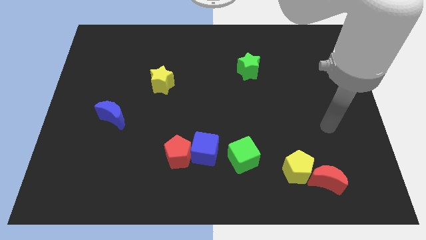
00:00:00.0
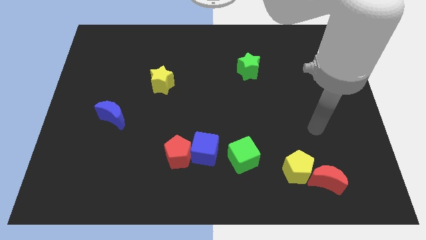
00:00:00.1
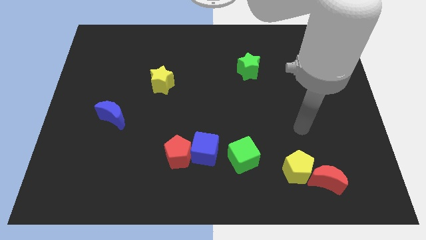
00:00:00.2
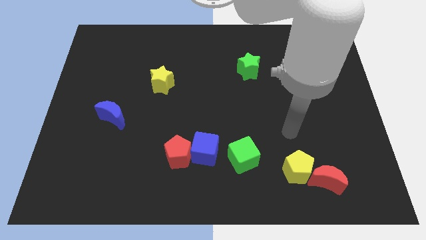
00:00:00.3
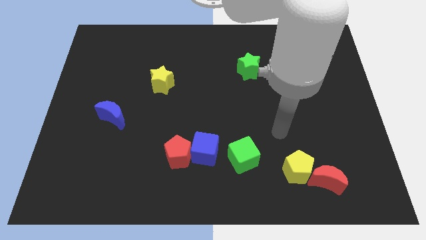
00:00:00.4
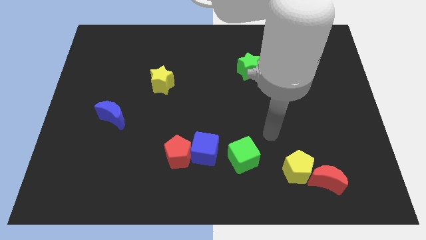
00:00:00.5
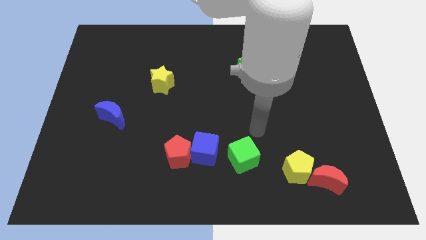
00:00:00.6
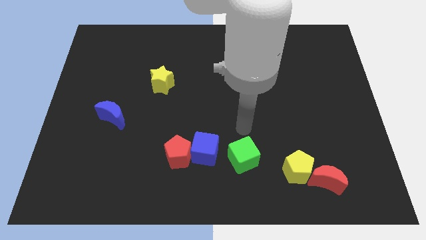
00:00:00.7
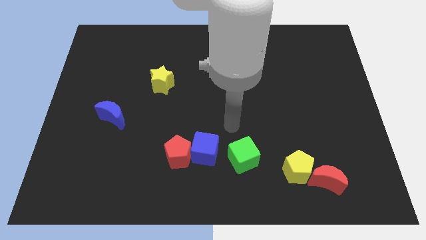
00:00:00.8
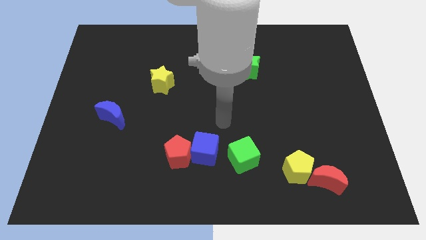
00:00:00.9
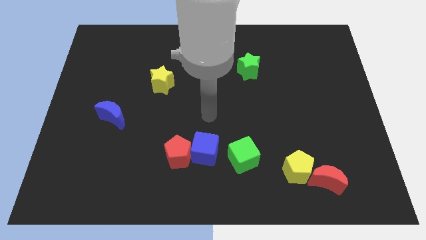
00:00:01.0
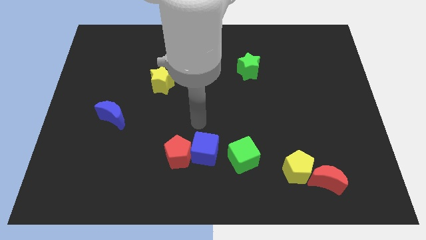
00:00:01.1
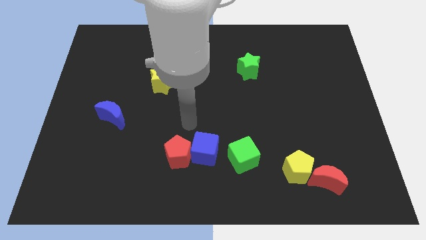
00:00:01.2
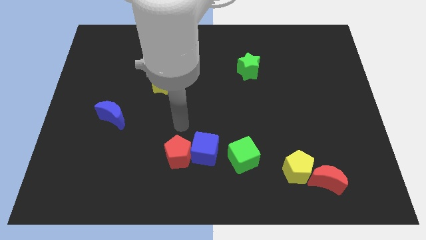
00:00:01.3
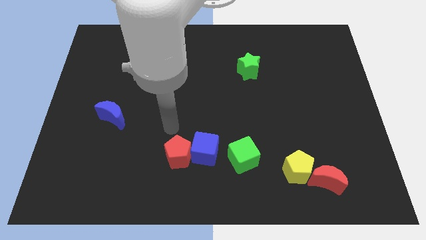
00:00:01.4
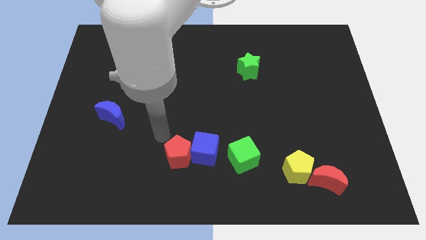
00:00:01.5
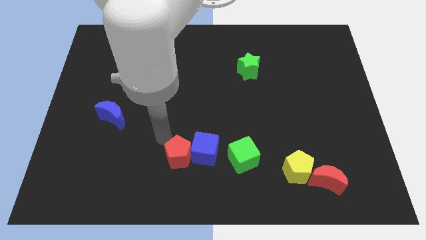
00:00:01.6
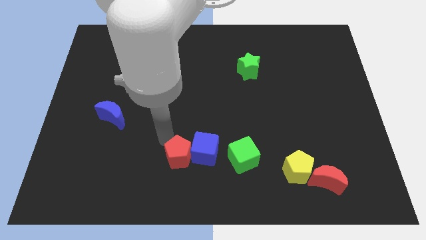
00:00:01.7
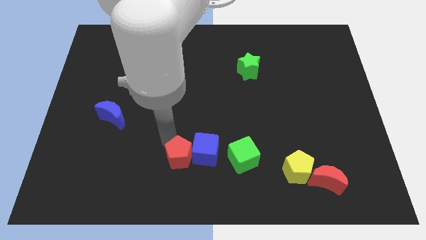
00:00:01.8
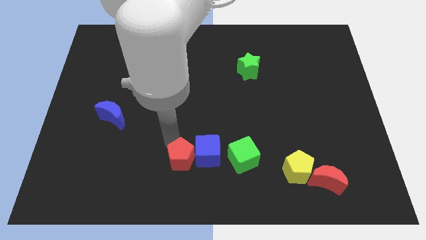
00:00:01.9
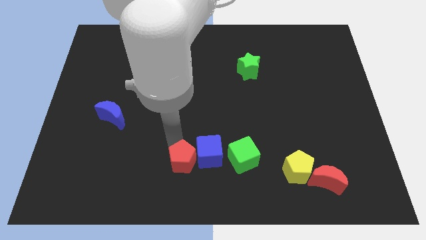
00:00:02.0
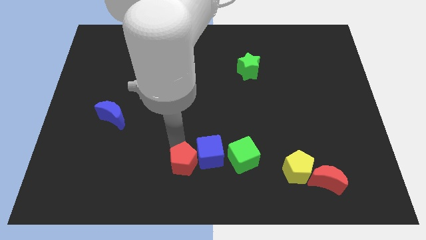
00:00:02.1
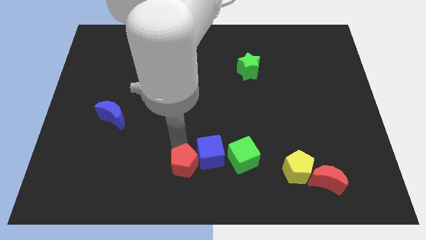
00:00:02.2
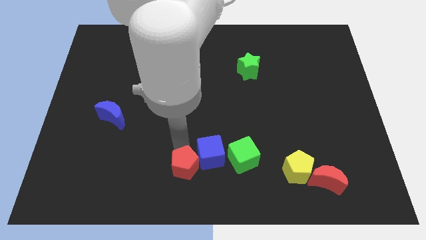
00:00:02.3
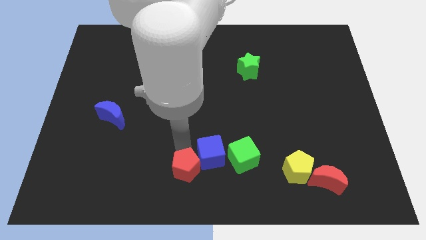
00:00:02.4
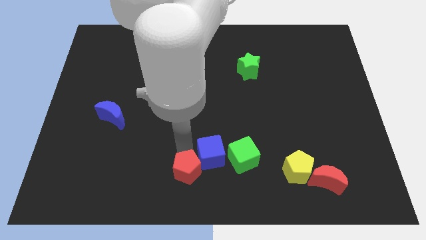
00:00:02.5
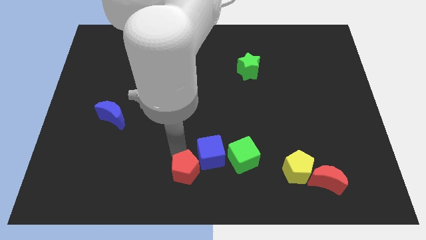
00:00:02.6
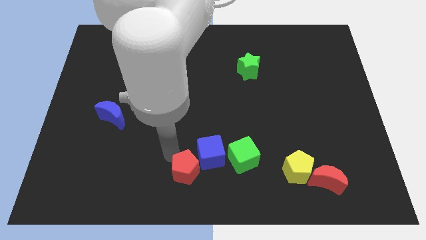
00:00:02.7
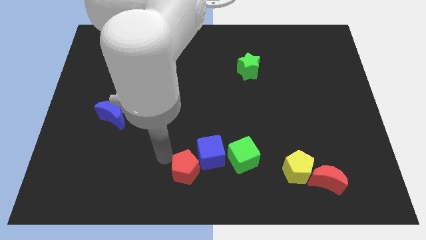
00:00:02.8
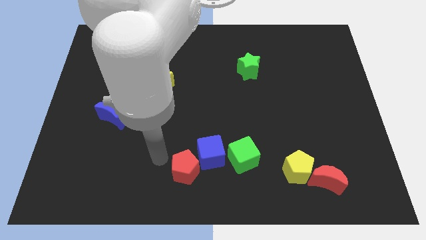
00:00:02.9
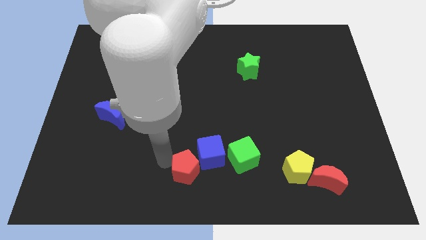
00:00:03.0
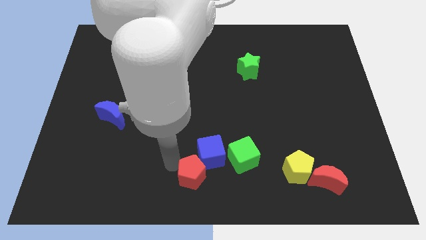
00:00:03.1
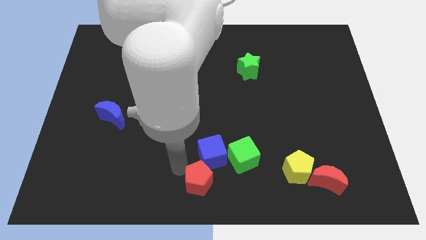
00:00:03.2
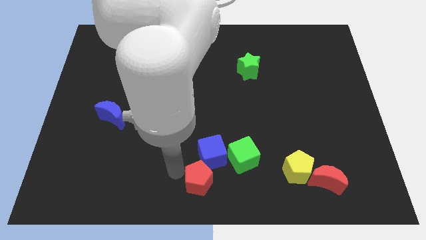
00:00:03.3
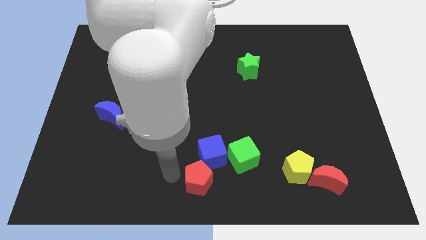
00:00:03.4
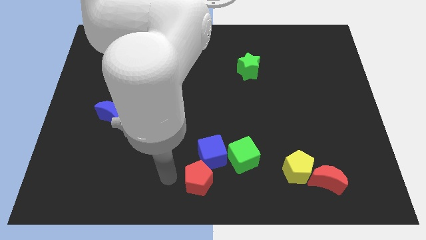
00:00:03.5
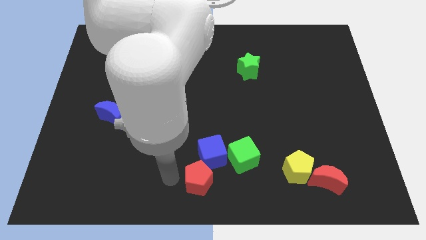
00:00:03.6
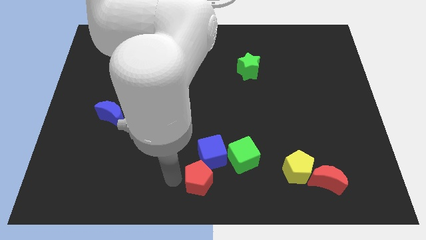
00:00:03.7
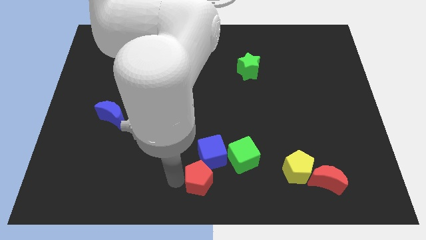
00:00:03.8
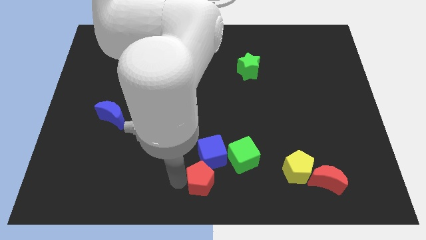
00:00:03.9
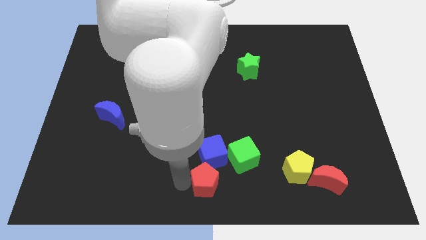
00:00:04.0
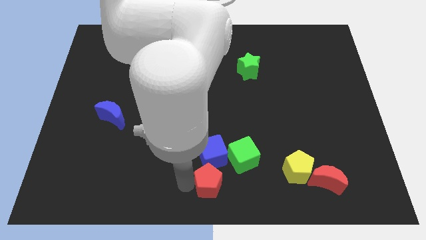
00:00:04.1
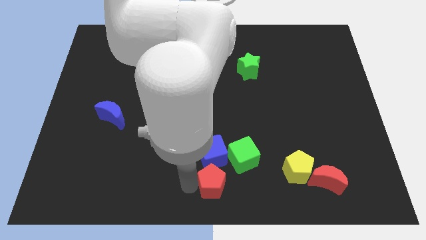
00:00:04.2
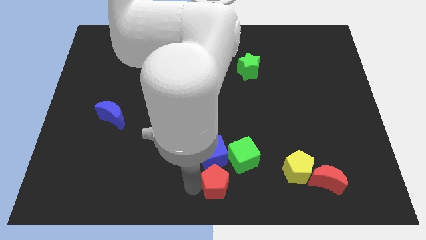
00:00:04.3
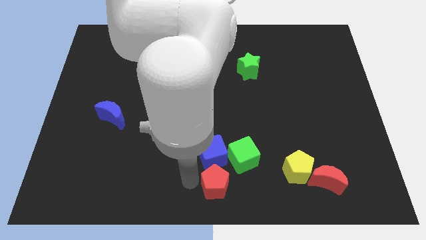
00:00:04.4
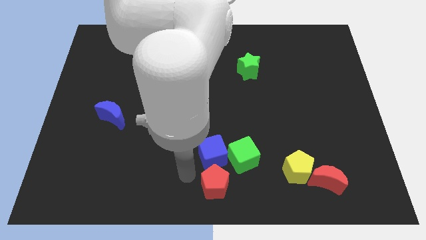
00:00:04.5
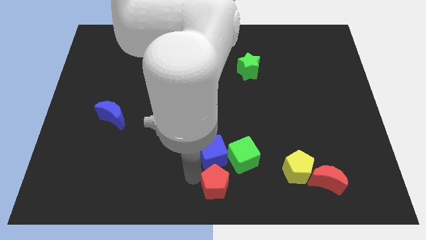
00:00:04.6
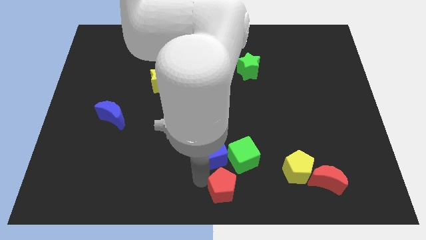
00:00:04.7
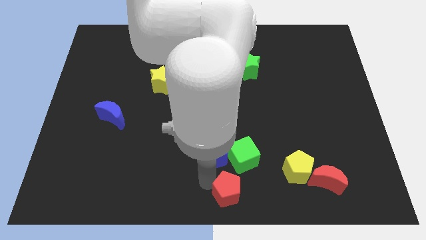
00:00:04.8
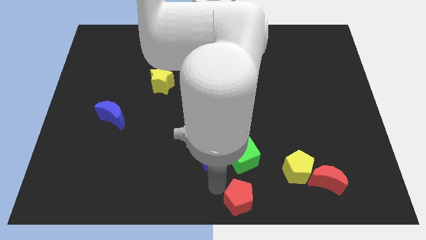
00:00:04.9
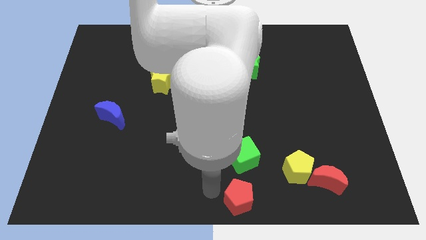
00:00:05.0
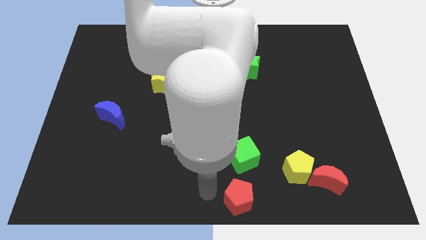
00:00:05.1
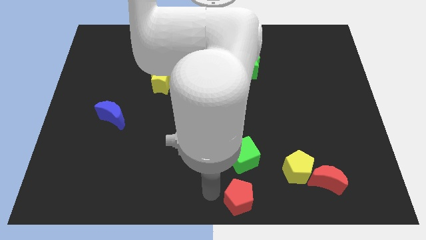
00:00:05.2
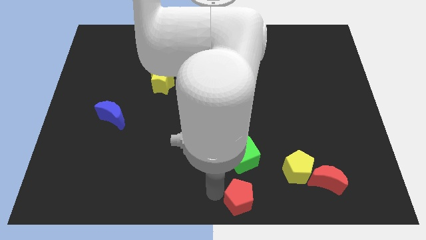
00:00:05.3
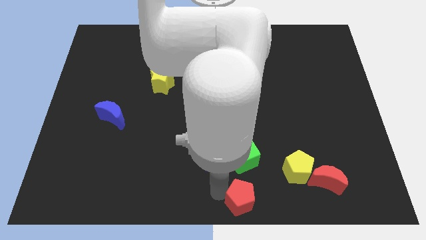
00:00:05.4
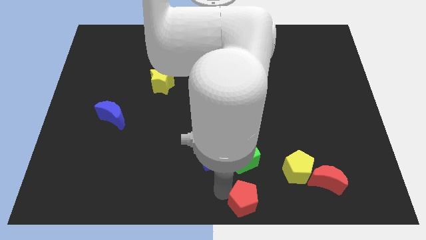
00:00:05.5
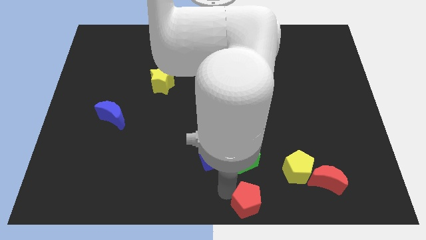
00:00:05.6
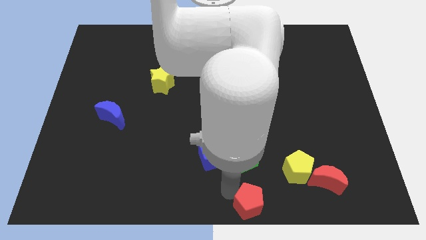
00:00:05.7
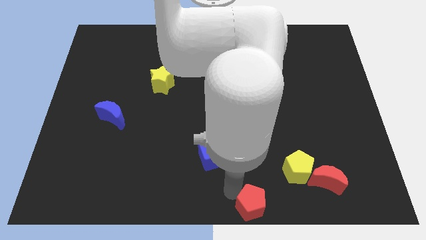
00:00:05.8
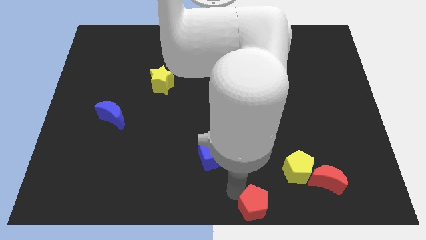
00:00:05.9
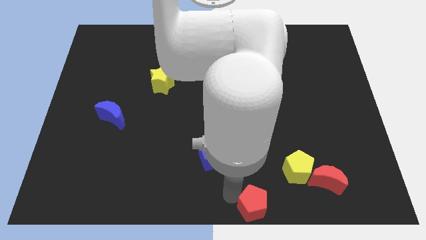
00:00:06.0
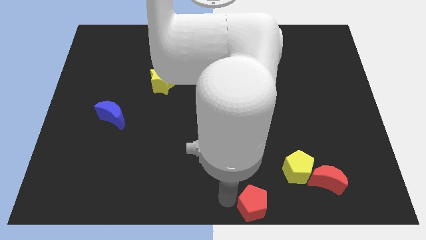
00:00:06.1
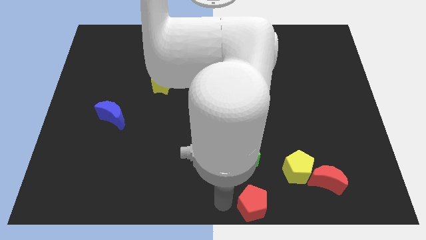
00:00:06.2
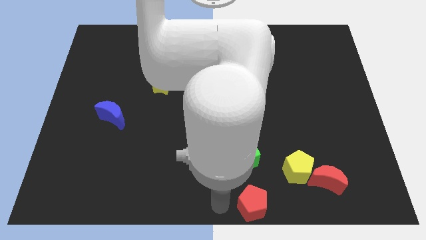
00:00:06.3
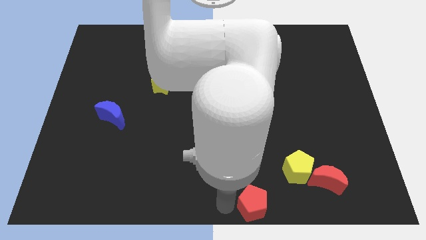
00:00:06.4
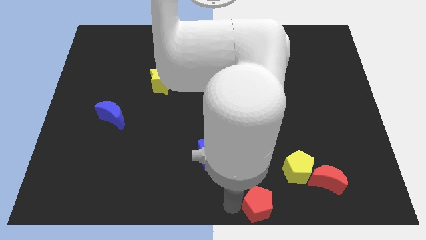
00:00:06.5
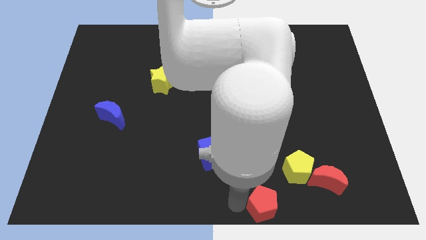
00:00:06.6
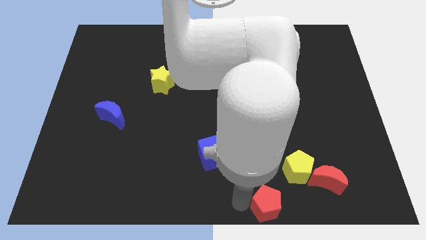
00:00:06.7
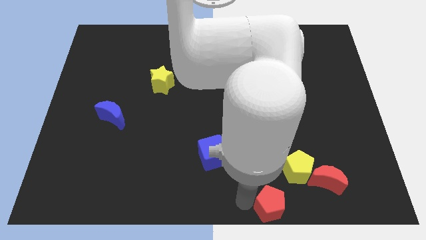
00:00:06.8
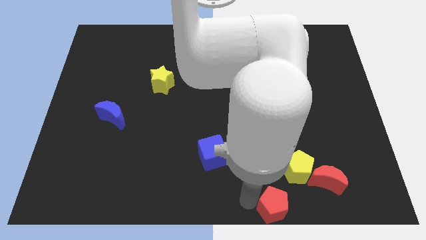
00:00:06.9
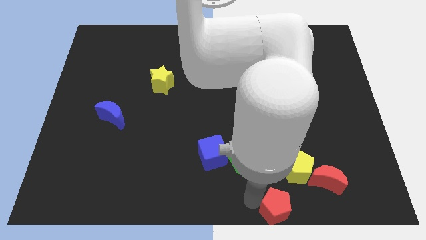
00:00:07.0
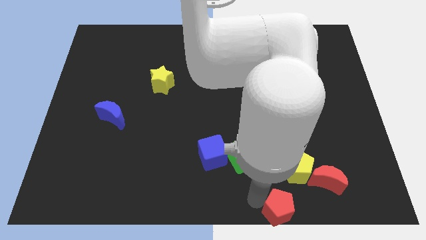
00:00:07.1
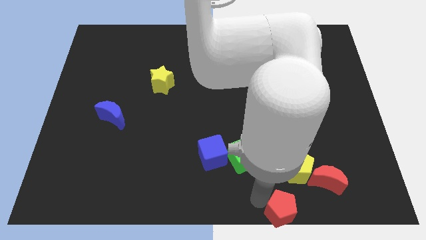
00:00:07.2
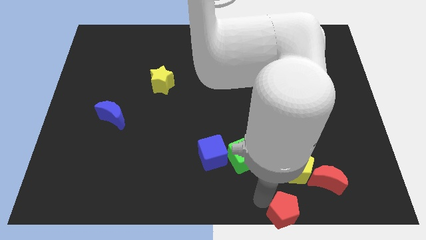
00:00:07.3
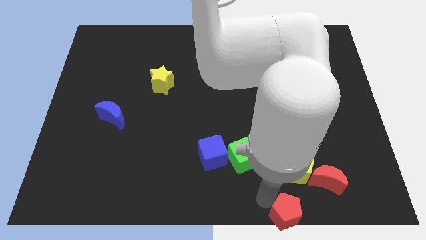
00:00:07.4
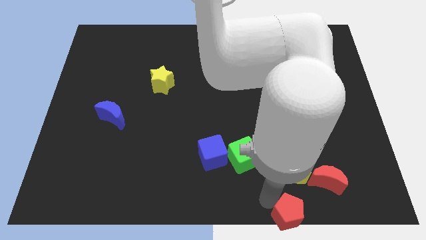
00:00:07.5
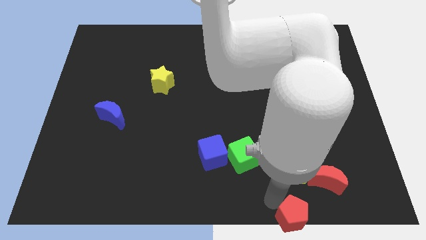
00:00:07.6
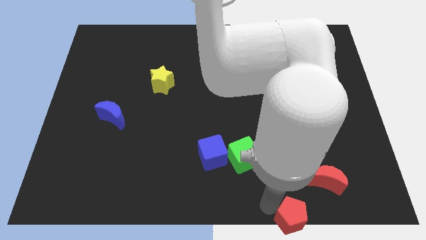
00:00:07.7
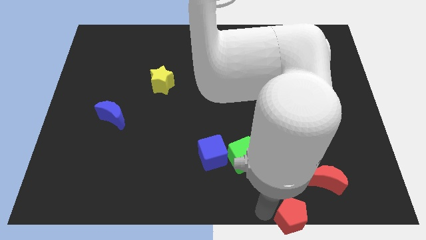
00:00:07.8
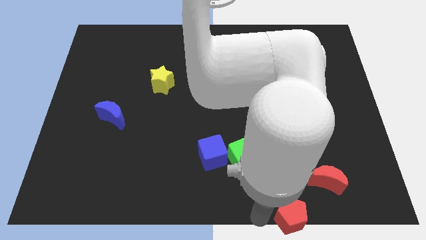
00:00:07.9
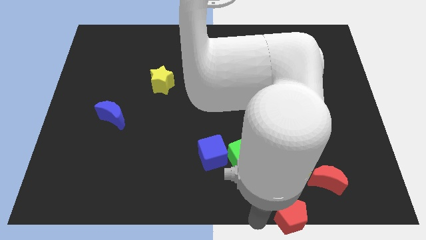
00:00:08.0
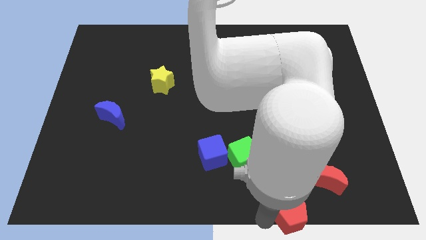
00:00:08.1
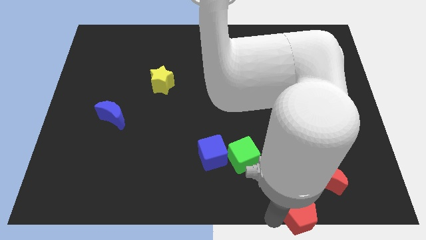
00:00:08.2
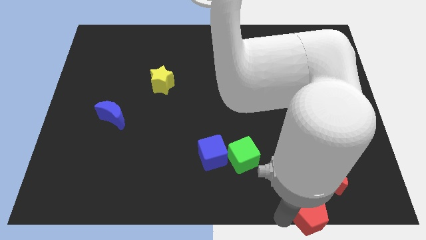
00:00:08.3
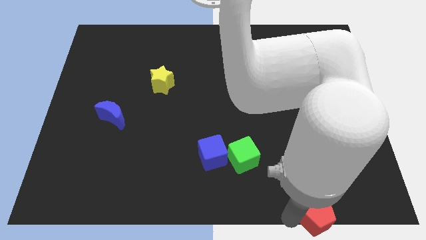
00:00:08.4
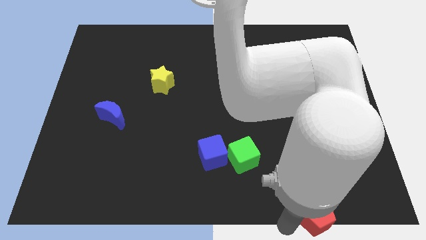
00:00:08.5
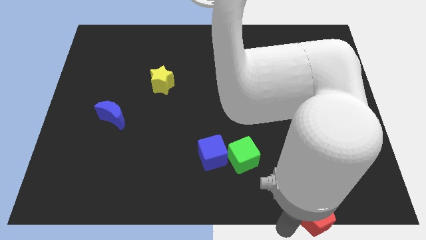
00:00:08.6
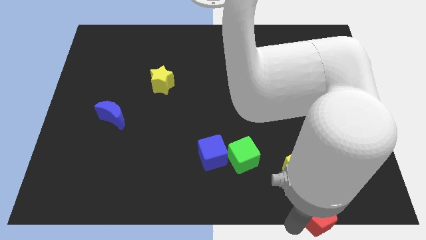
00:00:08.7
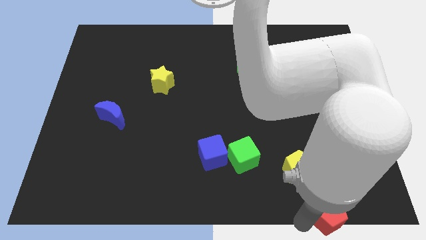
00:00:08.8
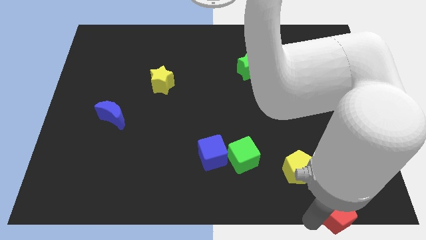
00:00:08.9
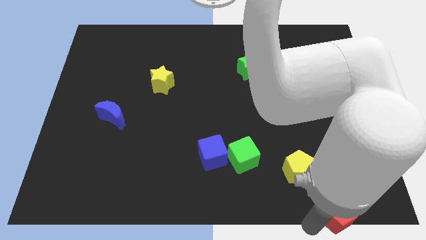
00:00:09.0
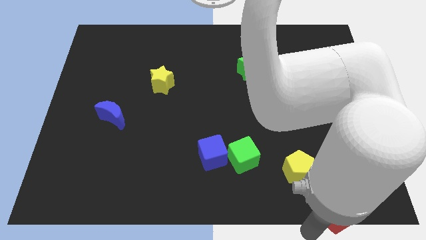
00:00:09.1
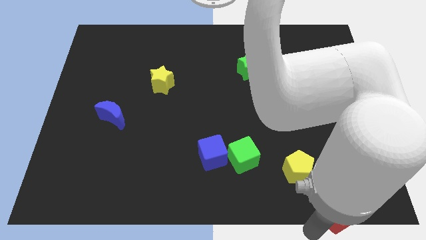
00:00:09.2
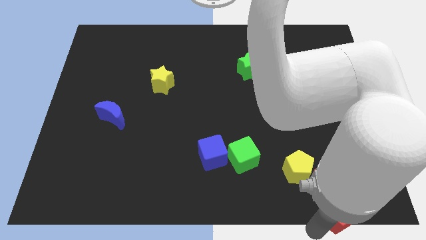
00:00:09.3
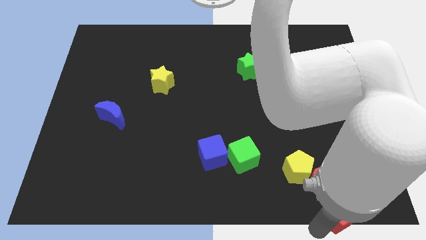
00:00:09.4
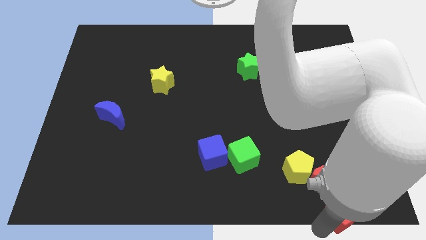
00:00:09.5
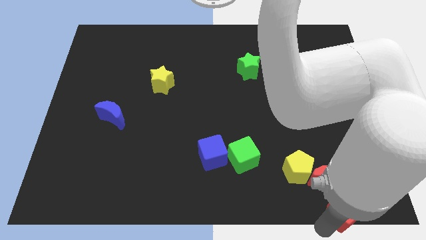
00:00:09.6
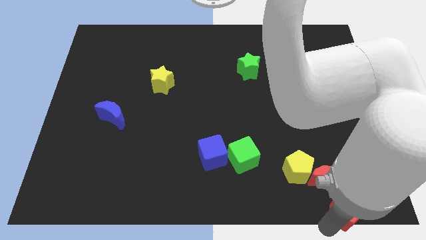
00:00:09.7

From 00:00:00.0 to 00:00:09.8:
slide the red pentagon to the bottom right corner
